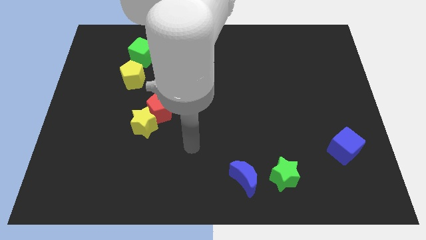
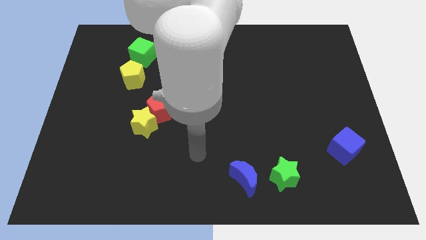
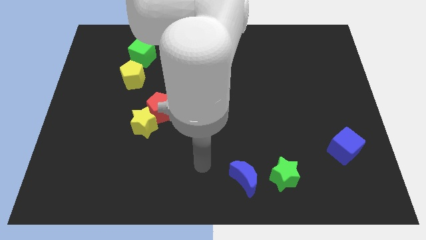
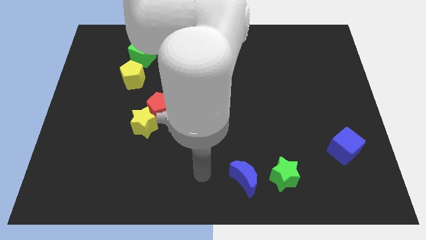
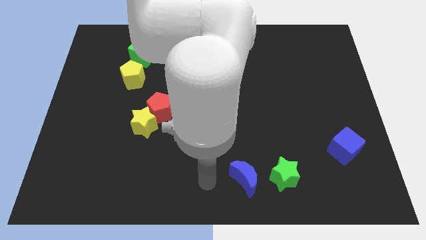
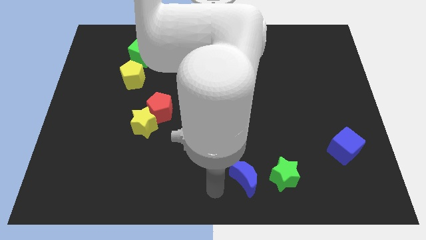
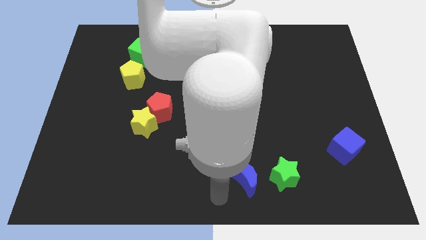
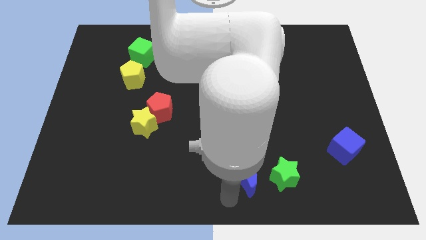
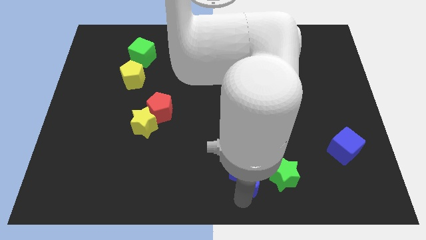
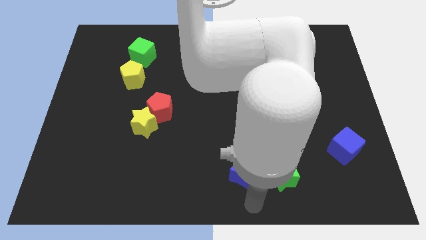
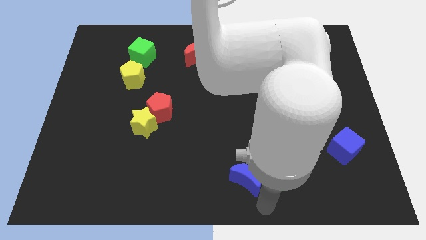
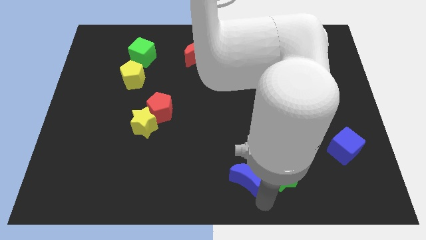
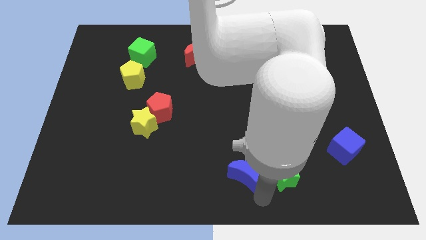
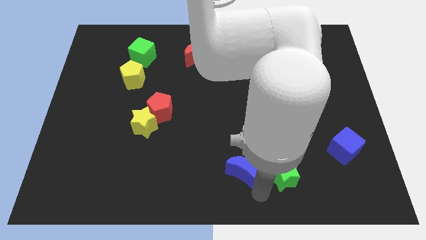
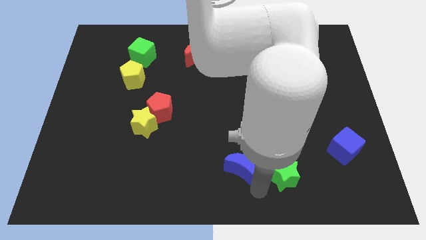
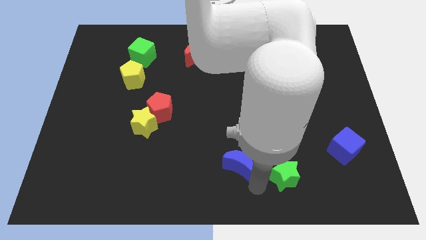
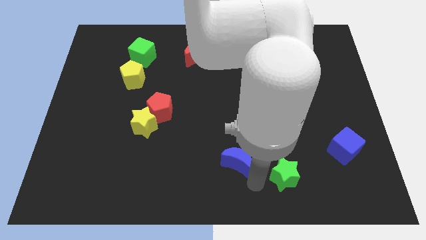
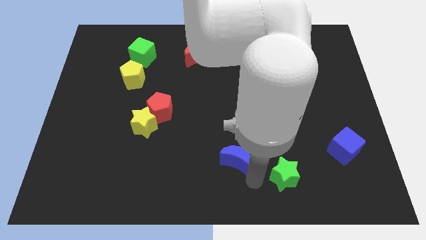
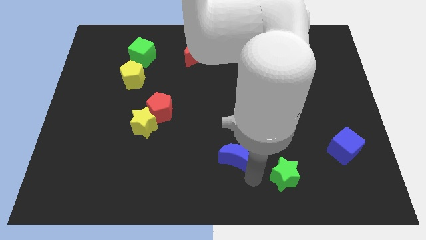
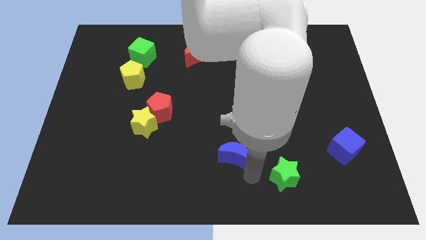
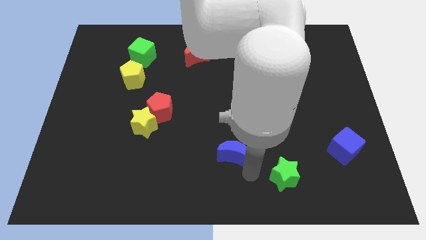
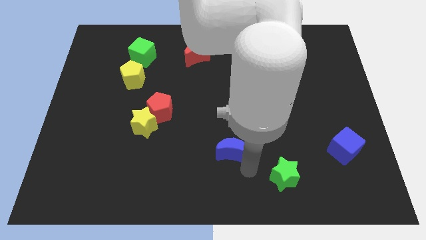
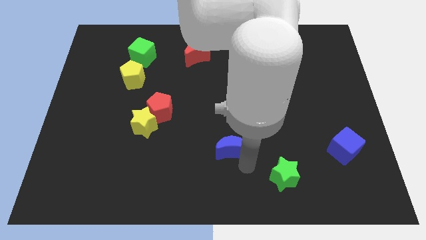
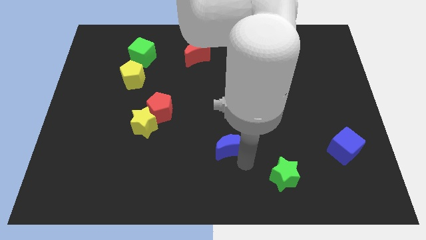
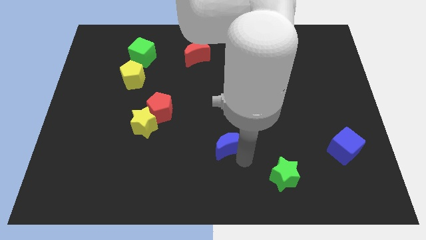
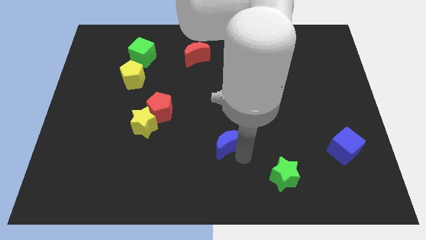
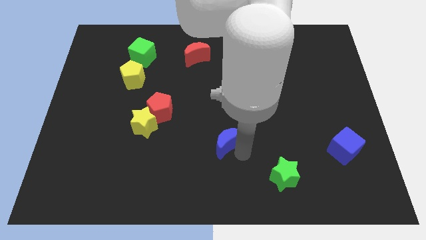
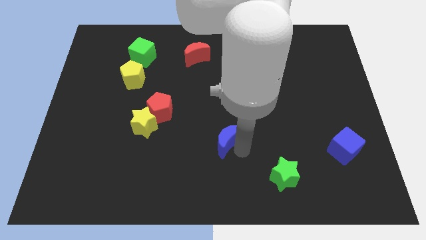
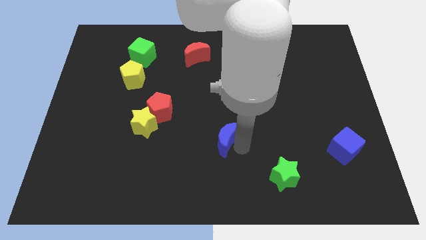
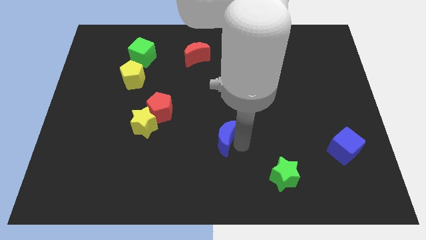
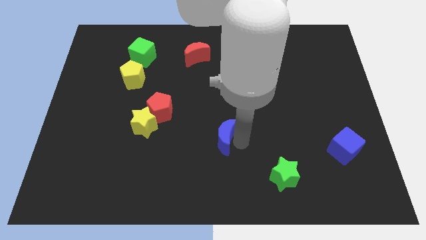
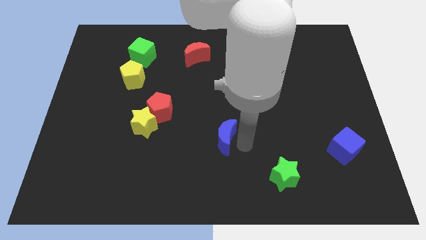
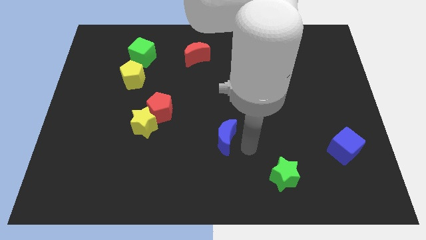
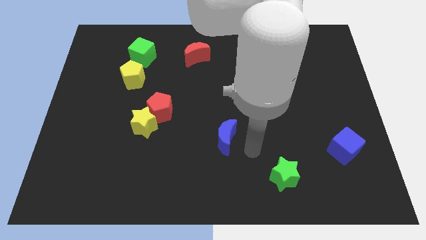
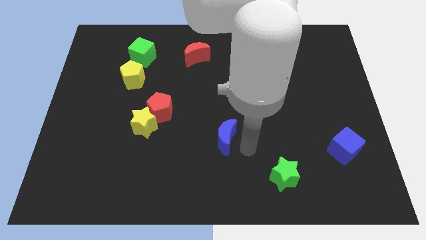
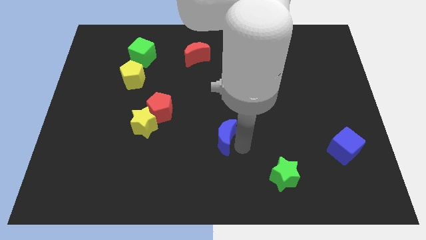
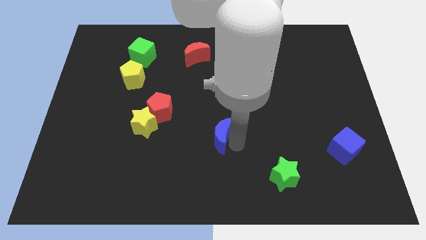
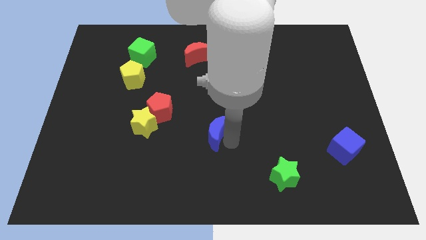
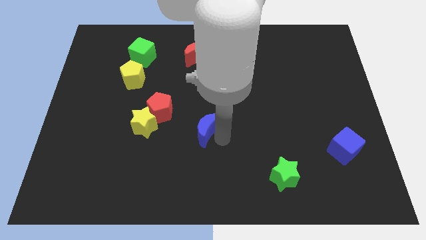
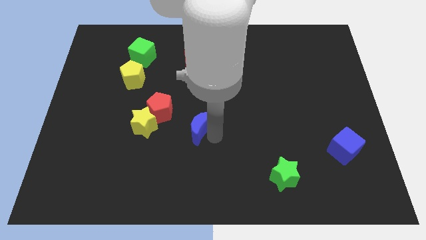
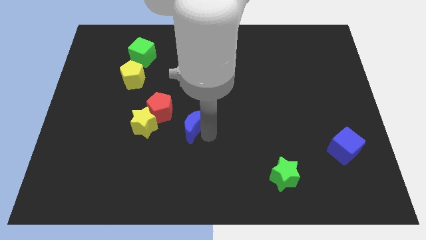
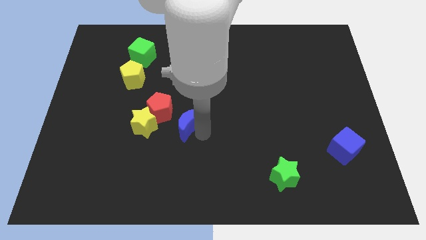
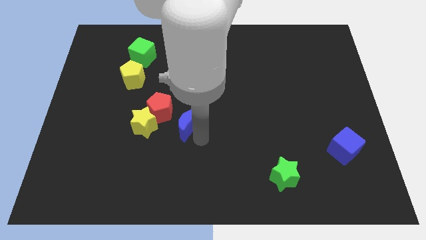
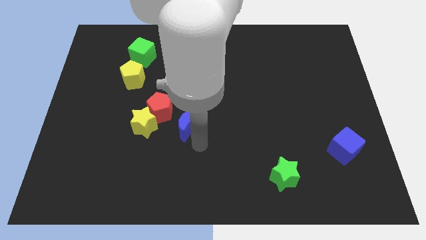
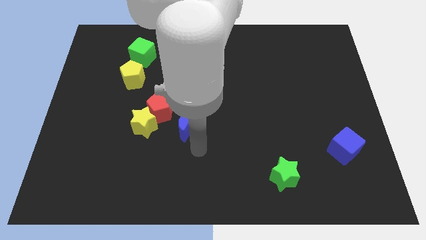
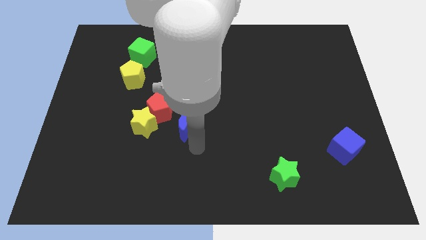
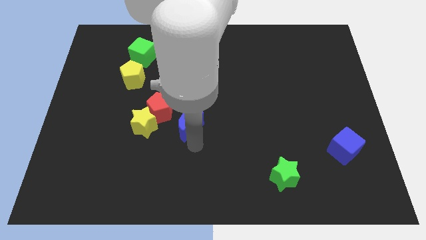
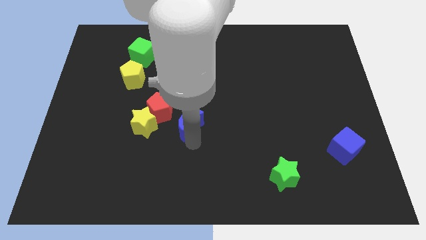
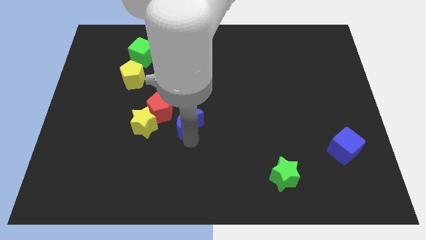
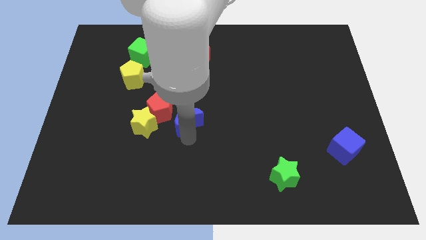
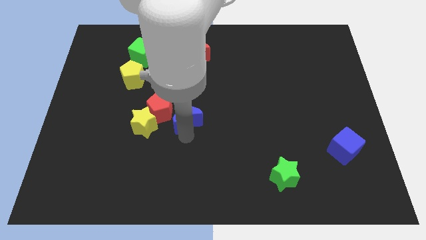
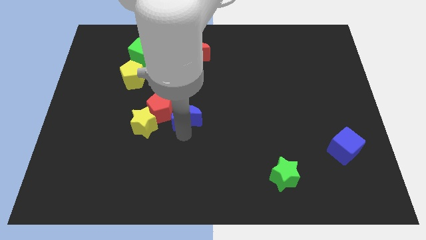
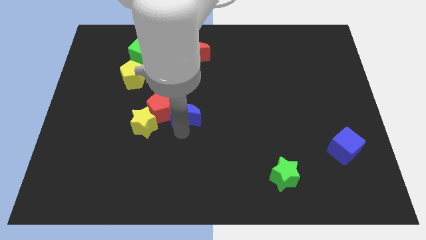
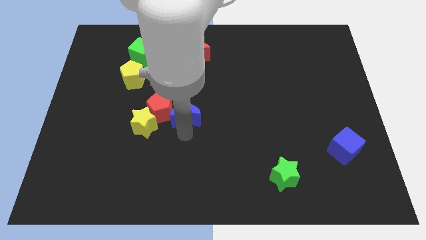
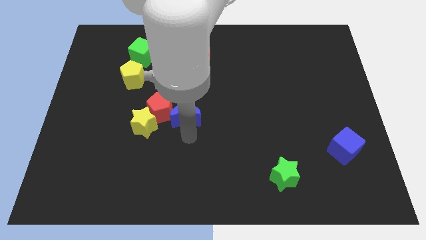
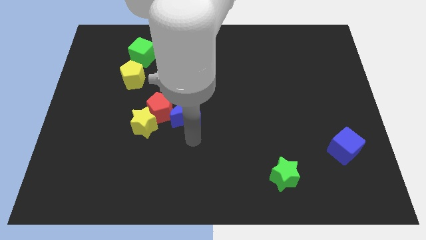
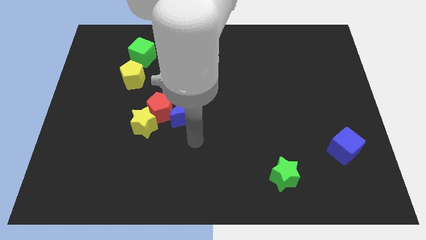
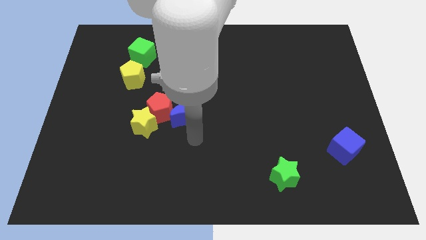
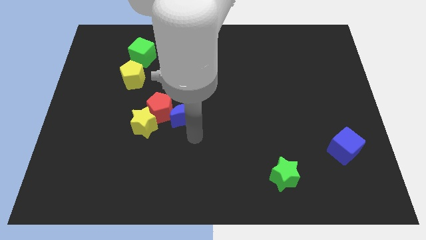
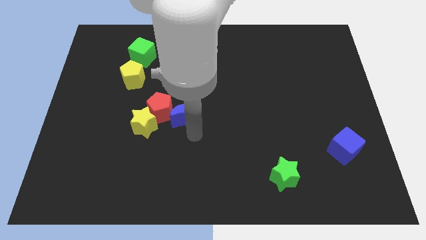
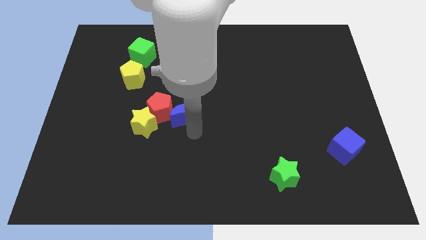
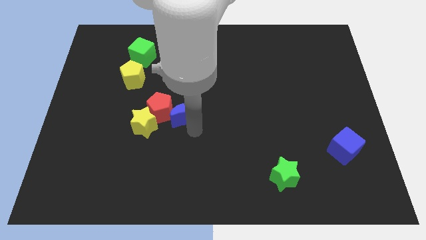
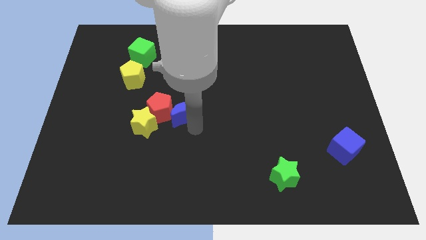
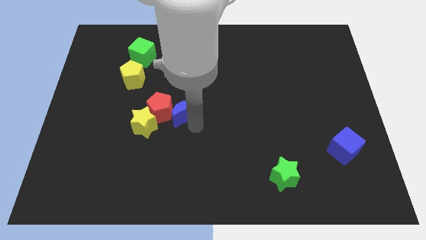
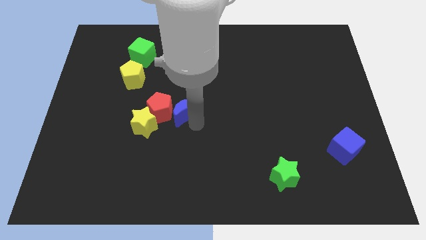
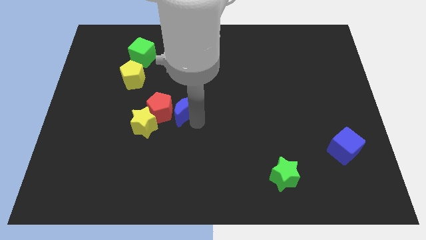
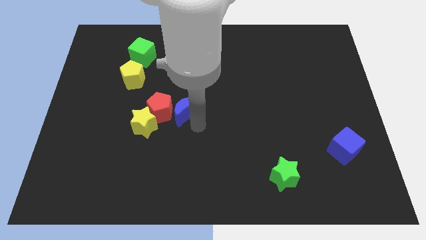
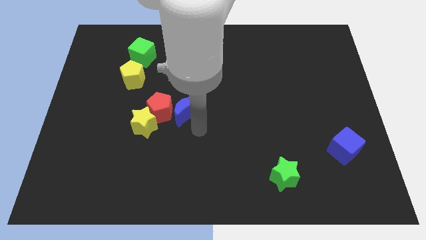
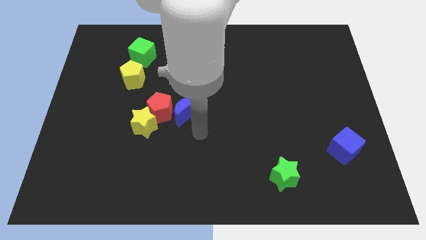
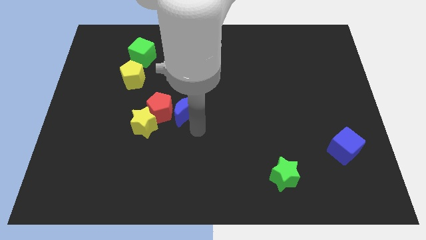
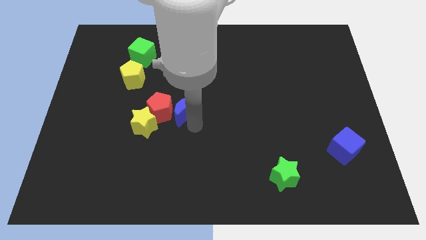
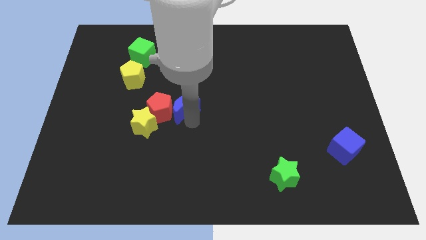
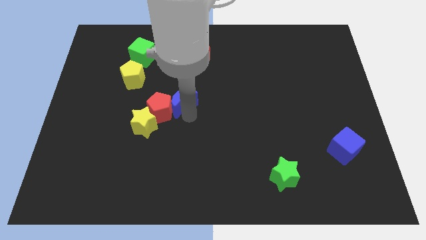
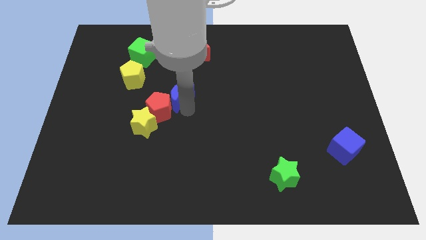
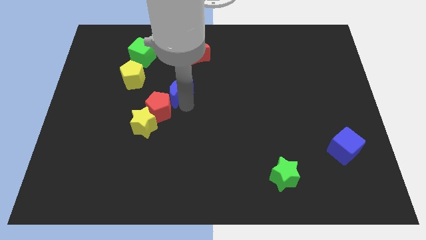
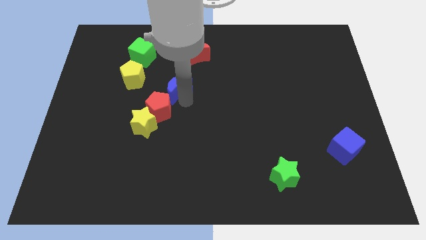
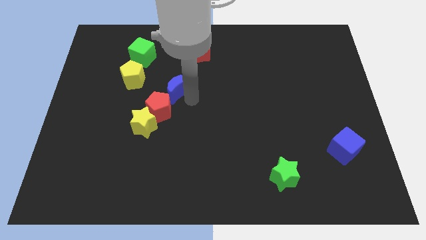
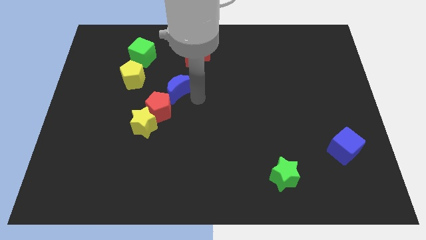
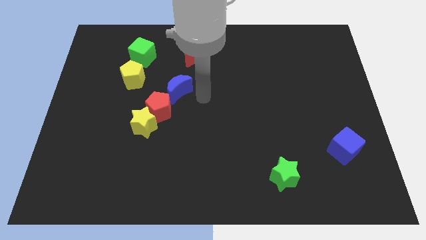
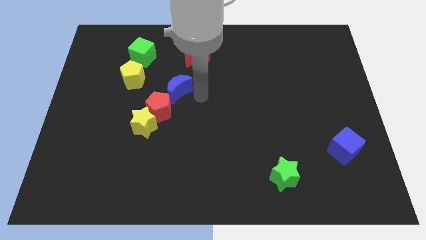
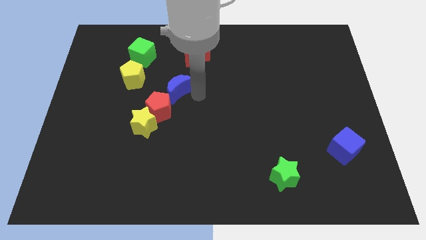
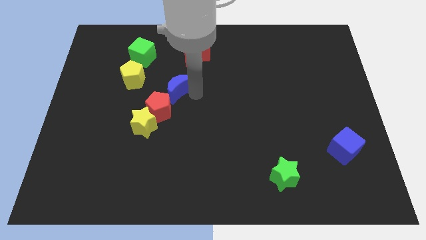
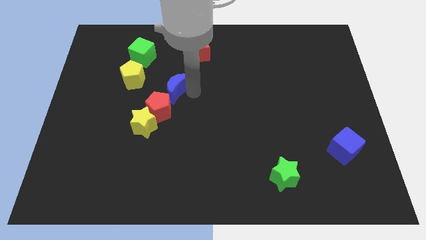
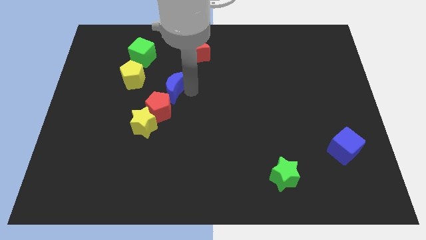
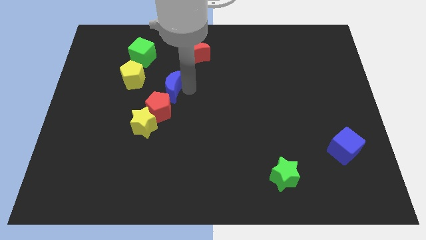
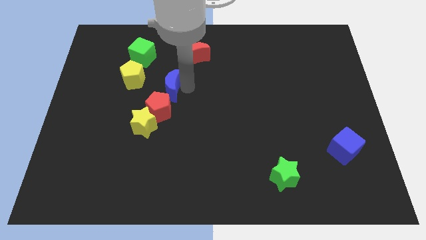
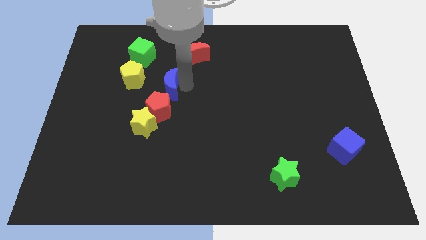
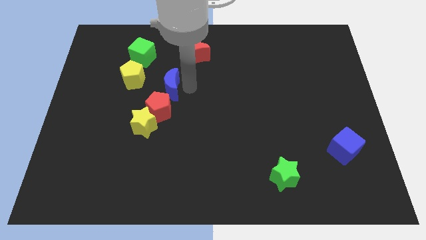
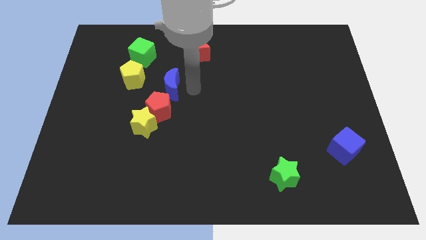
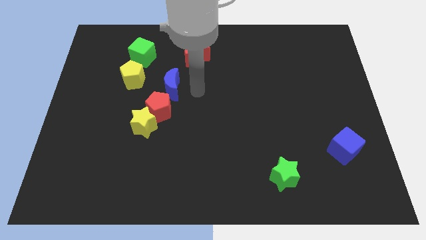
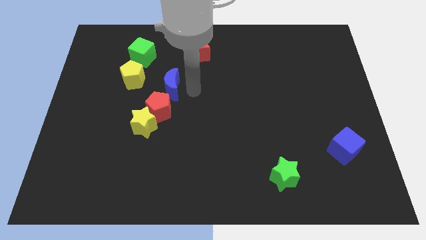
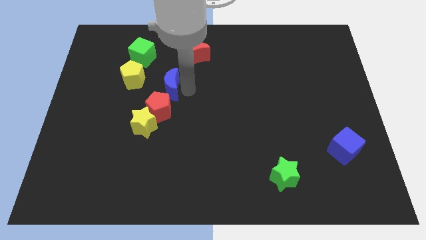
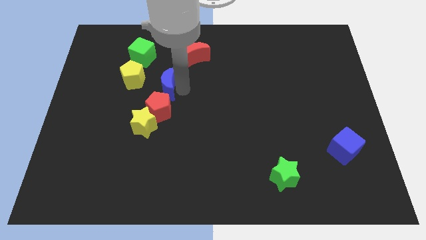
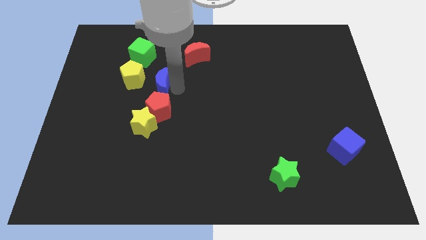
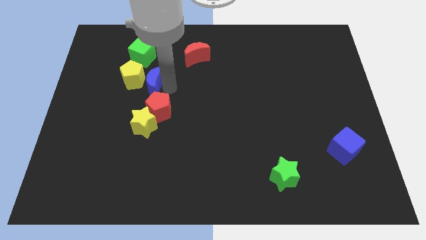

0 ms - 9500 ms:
put the blue moon next to the yellow pentagon
